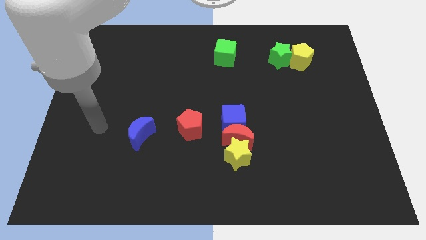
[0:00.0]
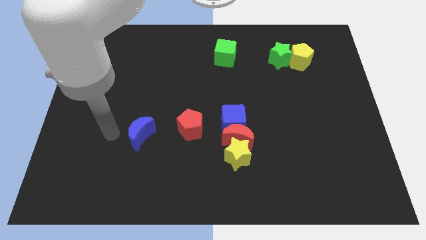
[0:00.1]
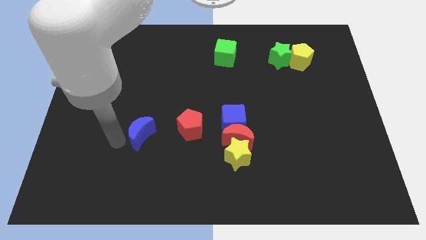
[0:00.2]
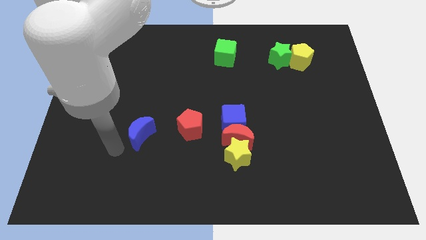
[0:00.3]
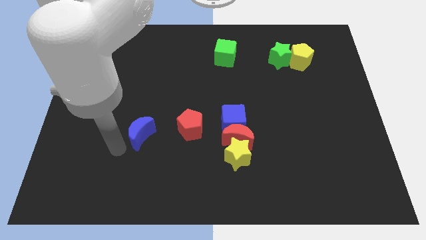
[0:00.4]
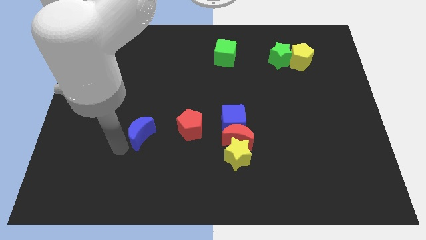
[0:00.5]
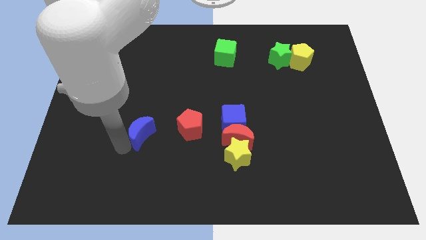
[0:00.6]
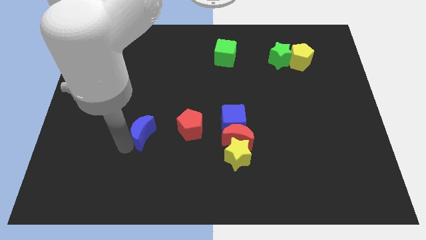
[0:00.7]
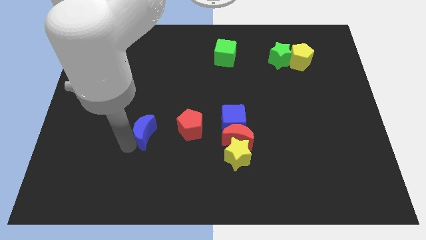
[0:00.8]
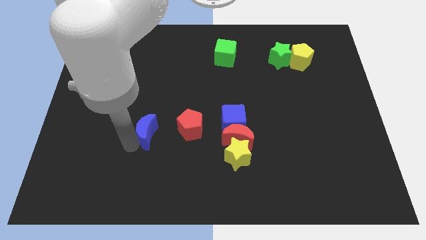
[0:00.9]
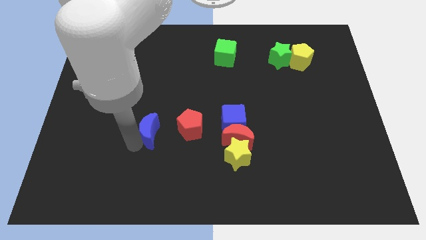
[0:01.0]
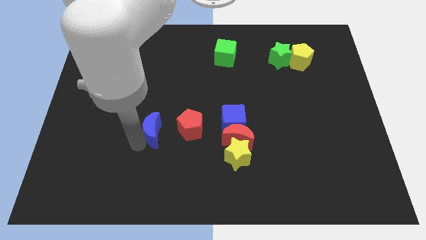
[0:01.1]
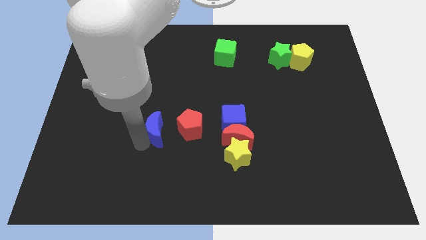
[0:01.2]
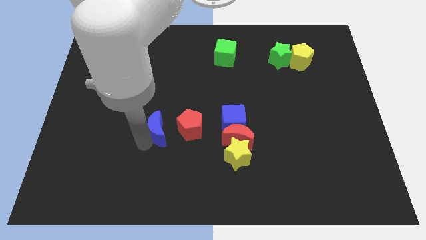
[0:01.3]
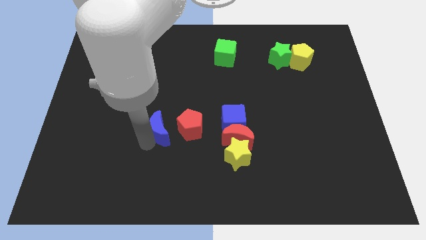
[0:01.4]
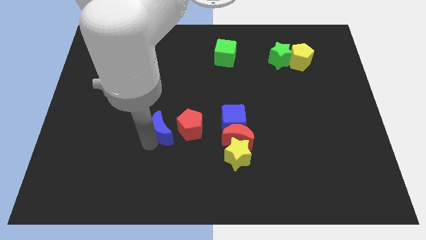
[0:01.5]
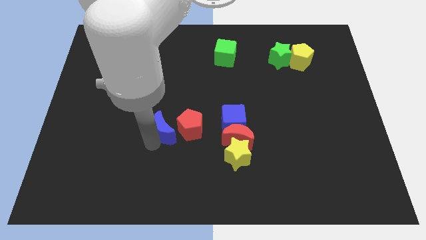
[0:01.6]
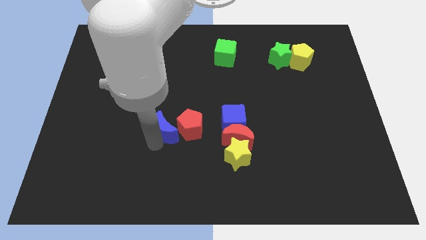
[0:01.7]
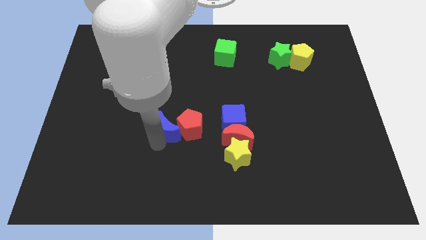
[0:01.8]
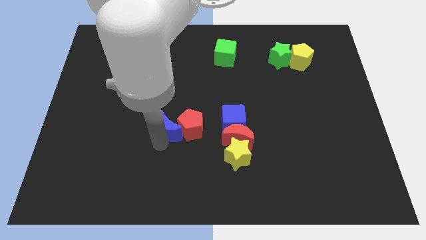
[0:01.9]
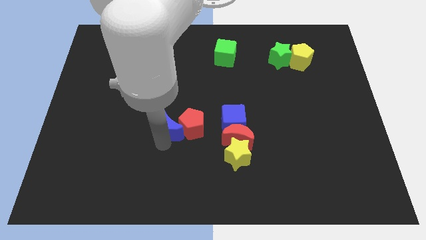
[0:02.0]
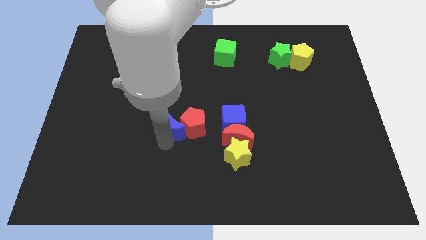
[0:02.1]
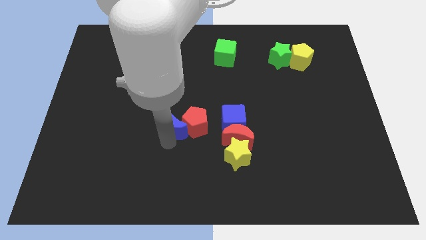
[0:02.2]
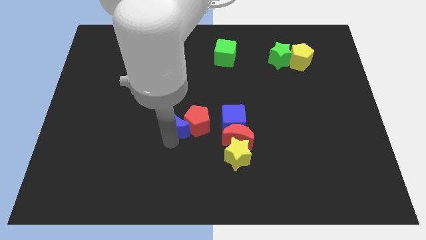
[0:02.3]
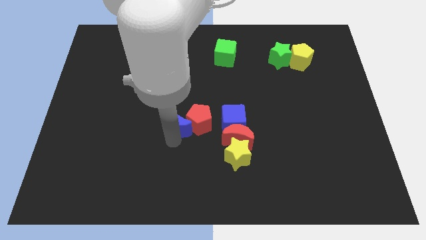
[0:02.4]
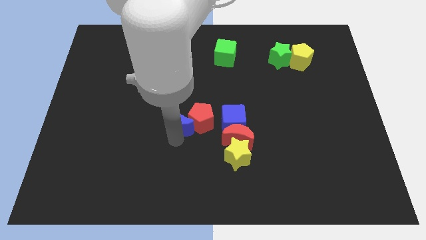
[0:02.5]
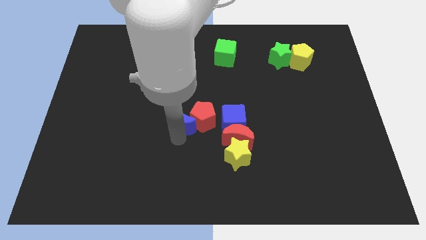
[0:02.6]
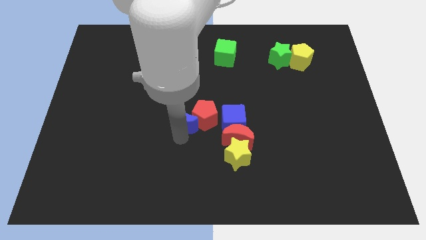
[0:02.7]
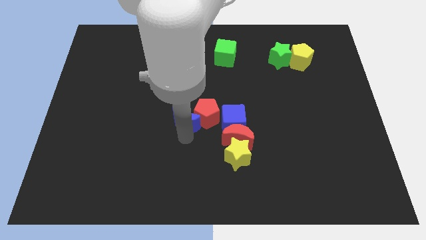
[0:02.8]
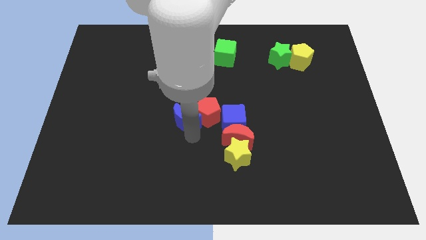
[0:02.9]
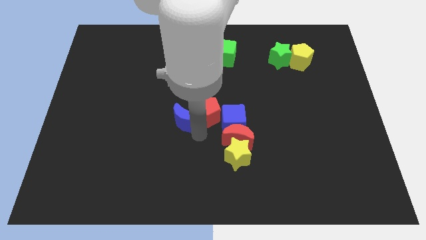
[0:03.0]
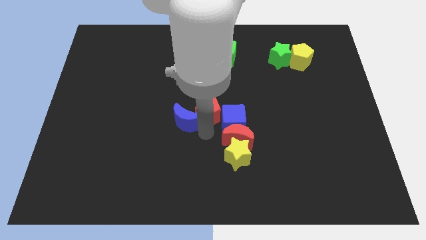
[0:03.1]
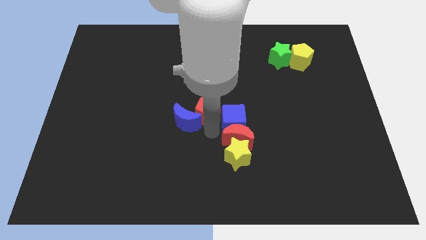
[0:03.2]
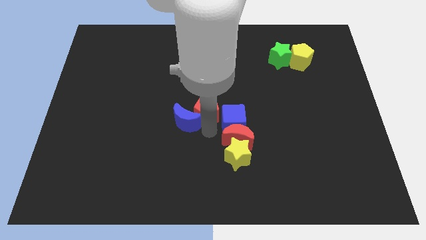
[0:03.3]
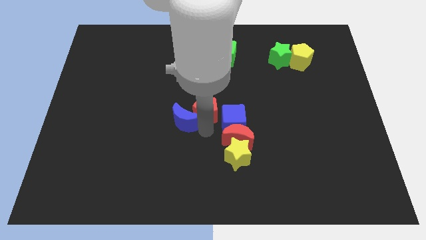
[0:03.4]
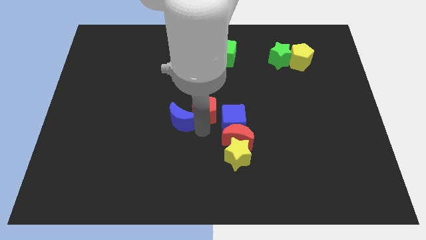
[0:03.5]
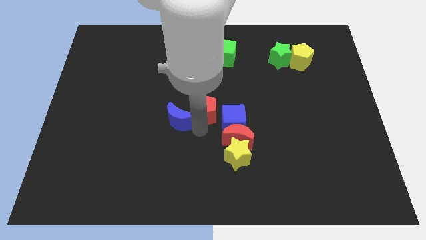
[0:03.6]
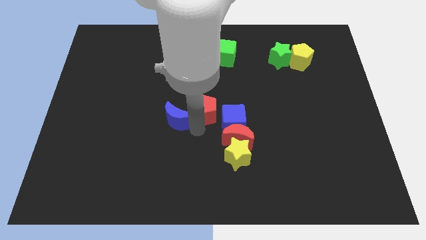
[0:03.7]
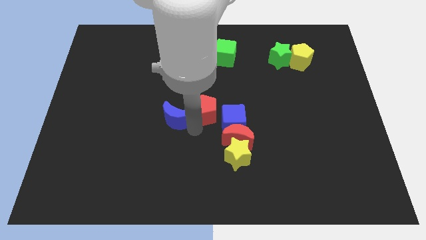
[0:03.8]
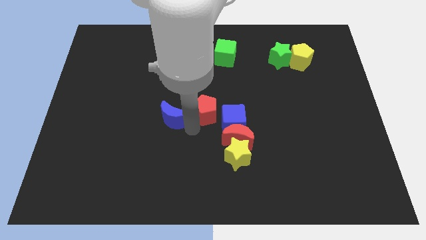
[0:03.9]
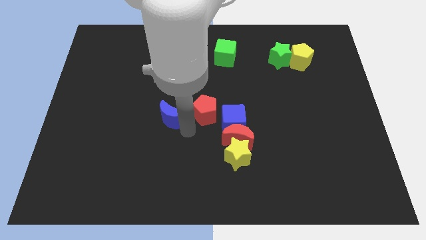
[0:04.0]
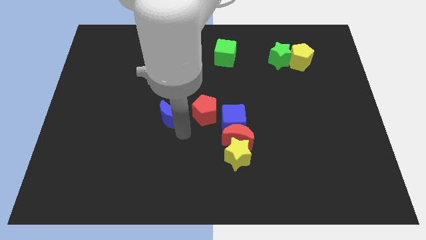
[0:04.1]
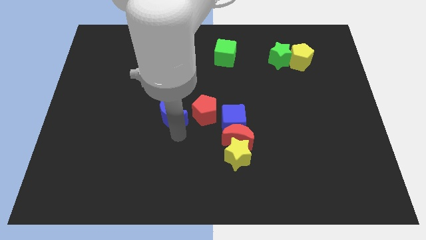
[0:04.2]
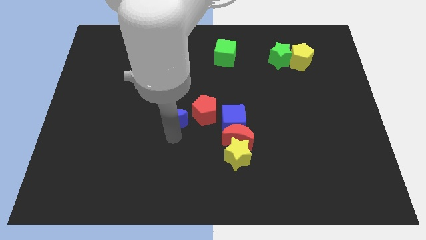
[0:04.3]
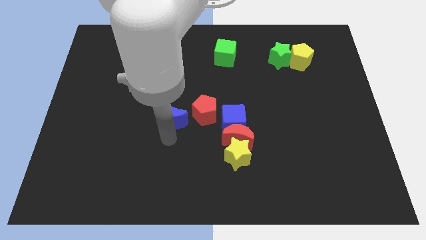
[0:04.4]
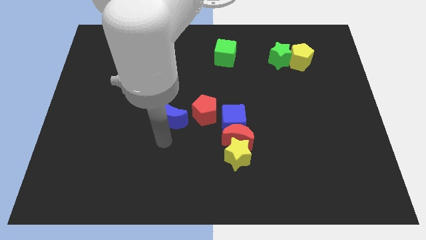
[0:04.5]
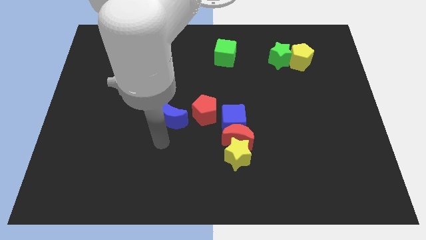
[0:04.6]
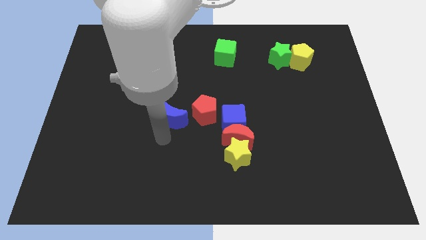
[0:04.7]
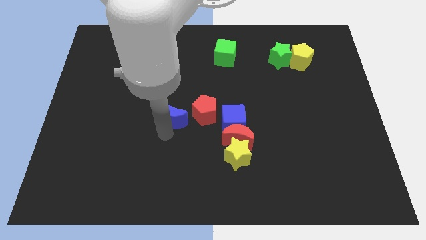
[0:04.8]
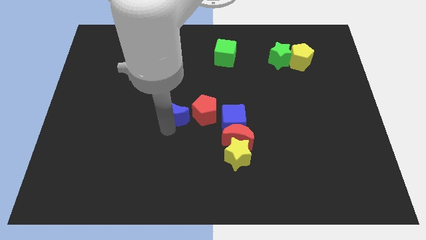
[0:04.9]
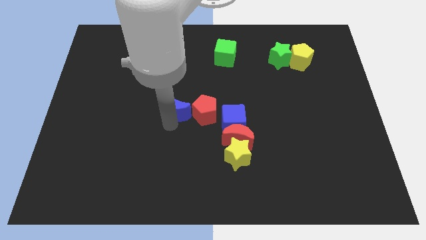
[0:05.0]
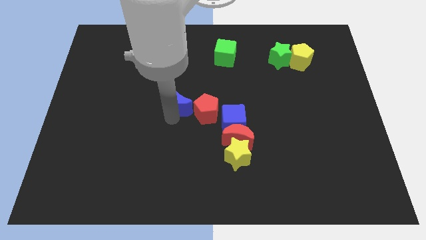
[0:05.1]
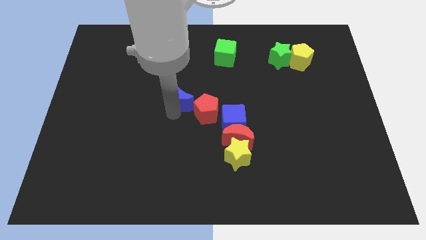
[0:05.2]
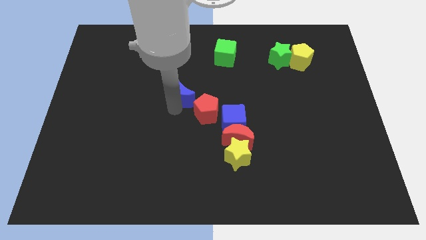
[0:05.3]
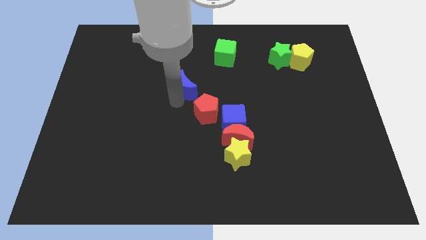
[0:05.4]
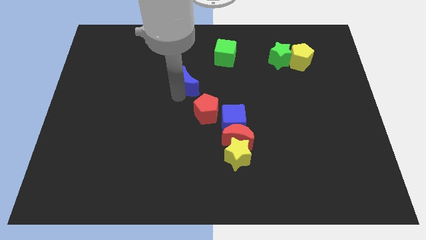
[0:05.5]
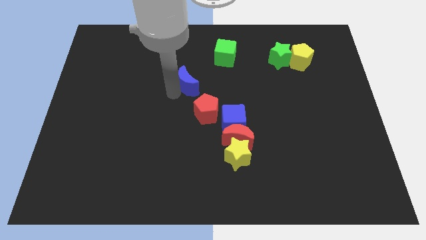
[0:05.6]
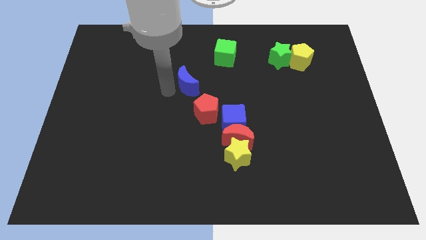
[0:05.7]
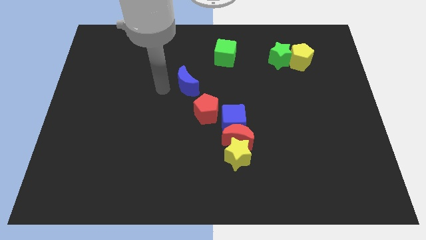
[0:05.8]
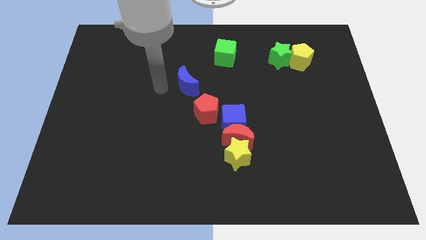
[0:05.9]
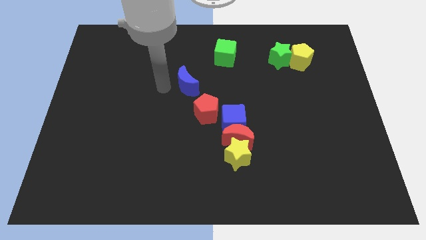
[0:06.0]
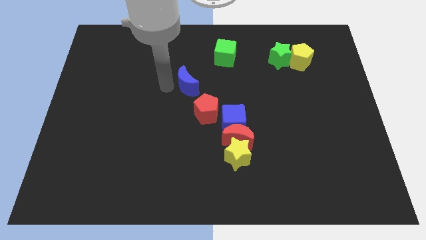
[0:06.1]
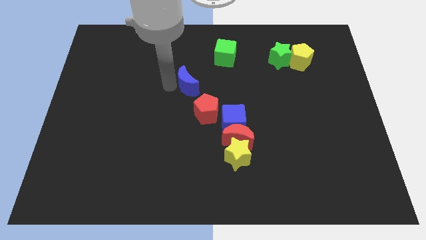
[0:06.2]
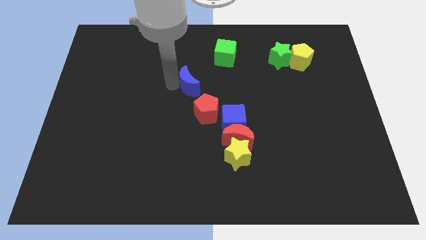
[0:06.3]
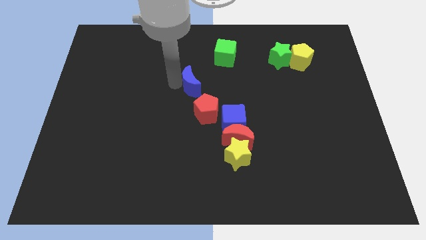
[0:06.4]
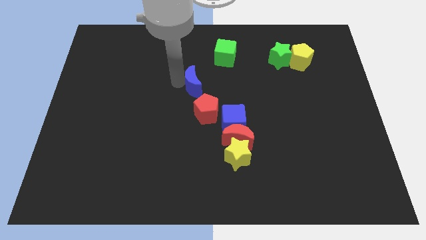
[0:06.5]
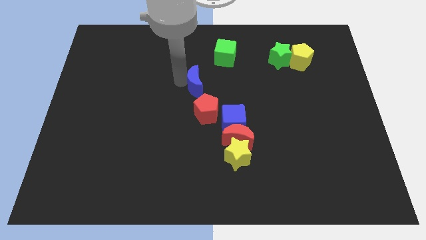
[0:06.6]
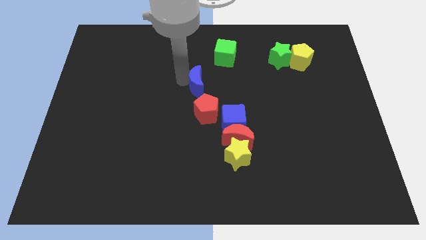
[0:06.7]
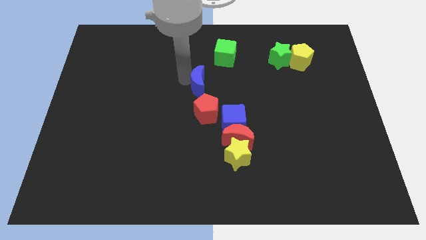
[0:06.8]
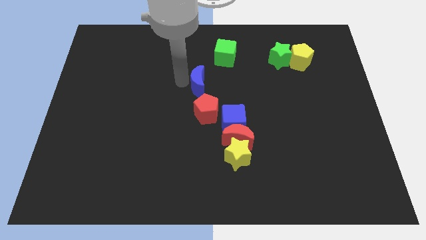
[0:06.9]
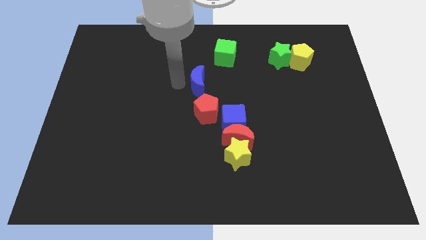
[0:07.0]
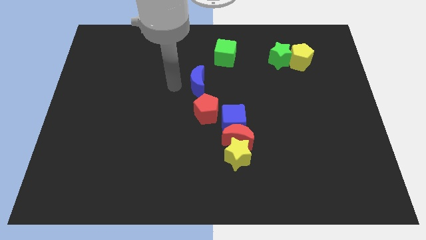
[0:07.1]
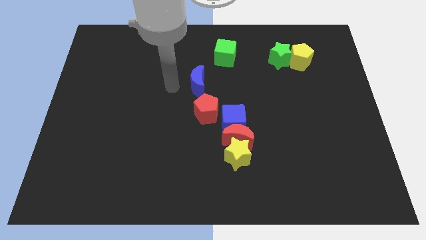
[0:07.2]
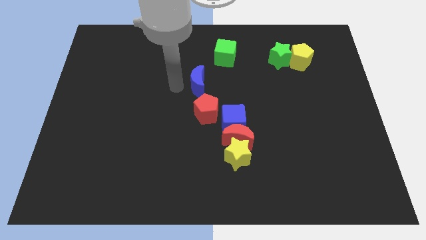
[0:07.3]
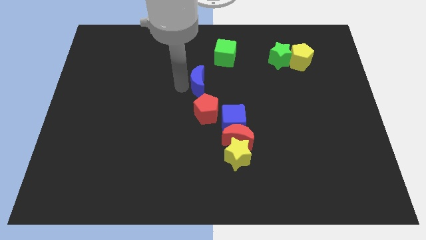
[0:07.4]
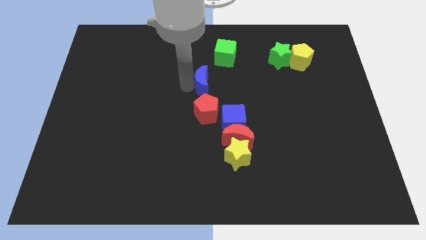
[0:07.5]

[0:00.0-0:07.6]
push the blue moon upwards and right

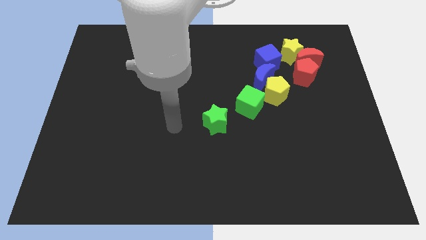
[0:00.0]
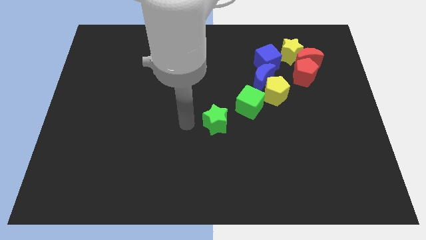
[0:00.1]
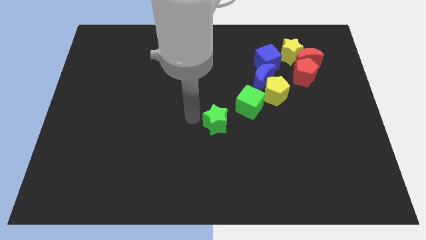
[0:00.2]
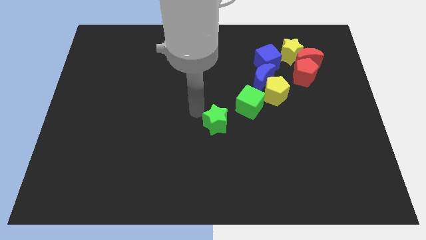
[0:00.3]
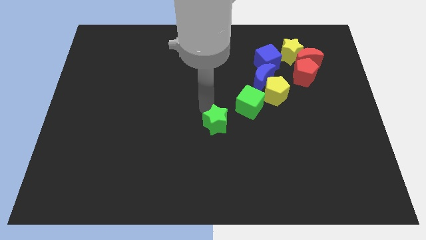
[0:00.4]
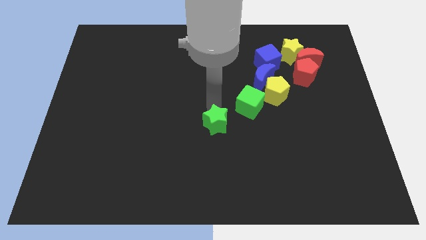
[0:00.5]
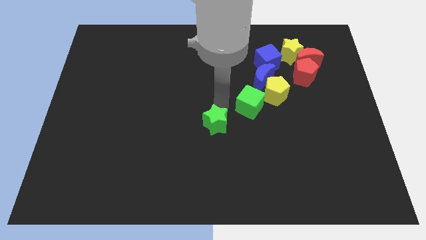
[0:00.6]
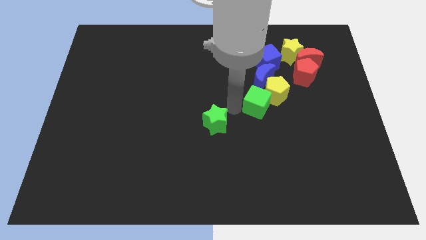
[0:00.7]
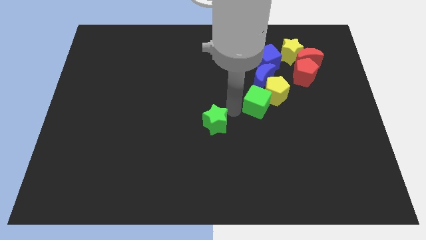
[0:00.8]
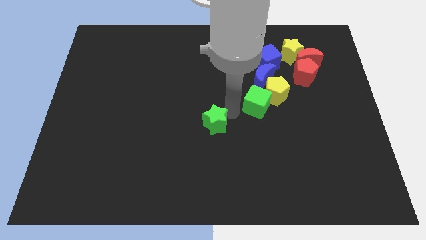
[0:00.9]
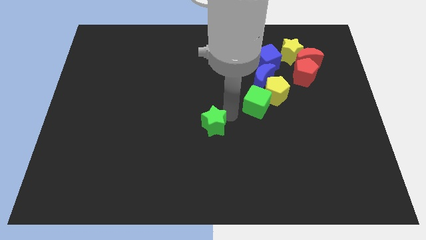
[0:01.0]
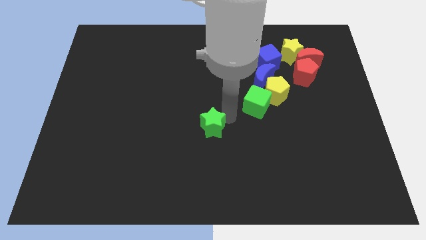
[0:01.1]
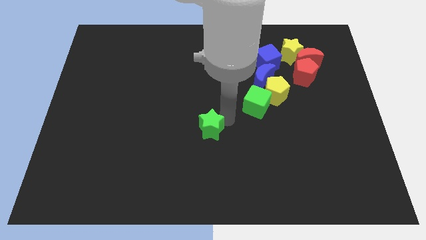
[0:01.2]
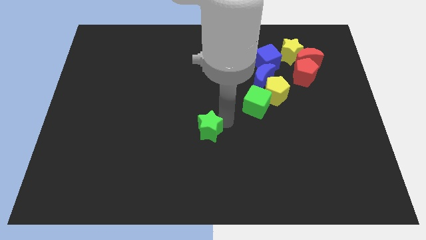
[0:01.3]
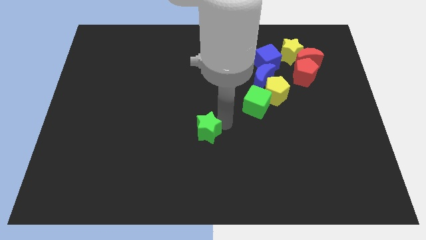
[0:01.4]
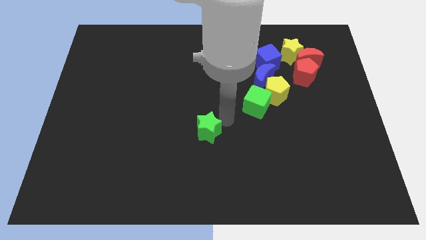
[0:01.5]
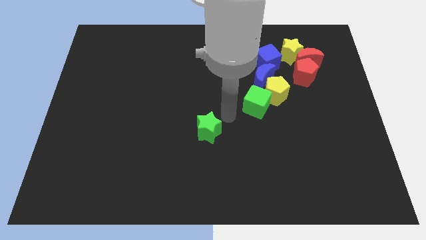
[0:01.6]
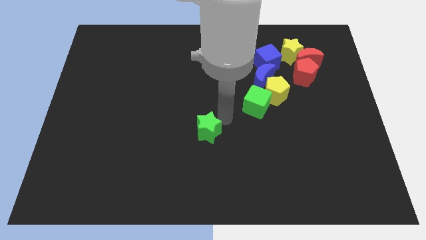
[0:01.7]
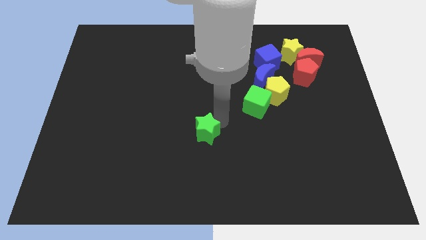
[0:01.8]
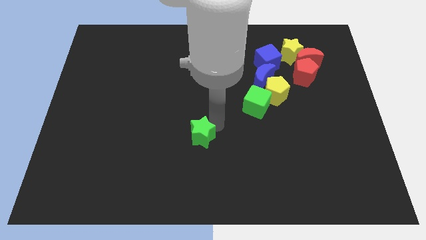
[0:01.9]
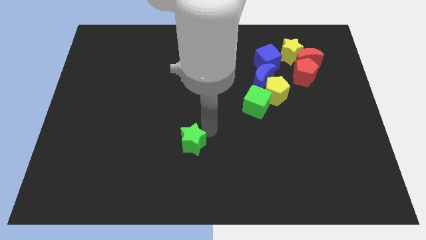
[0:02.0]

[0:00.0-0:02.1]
slightly move the green star downwards and left diagonally
